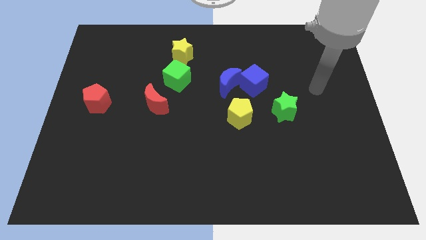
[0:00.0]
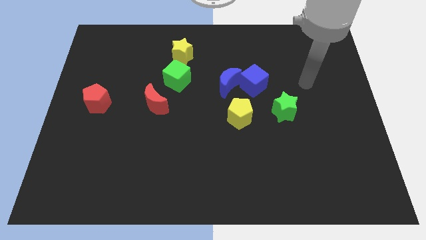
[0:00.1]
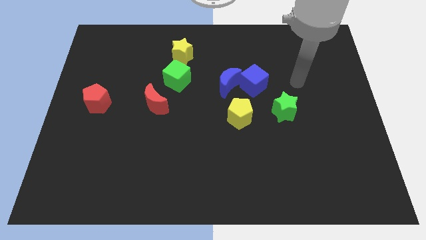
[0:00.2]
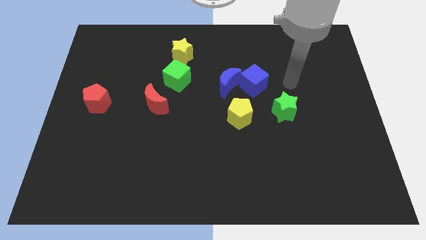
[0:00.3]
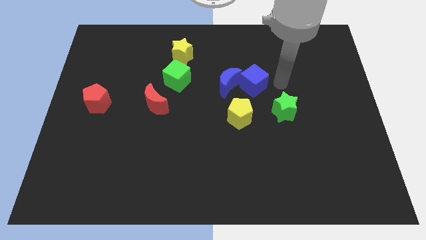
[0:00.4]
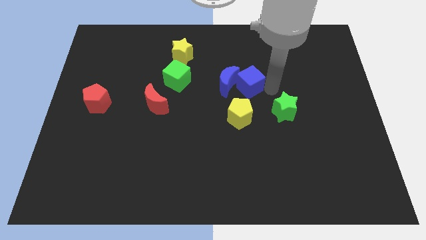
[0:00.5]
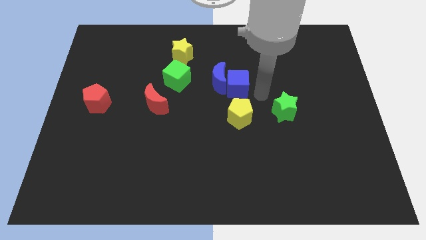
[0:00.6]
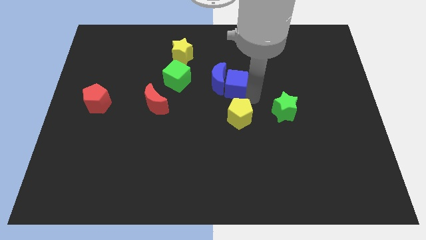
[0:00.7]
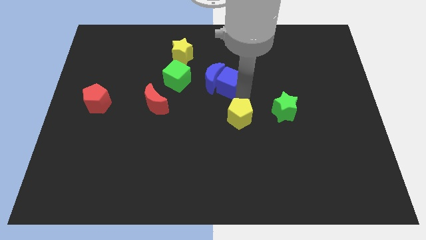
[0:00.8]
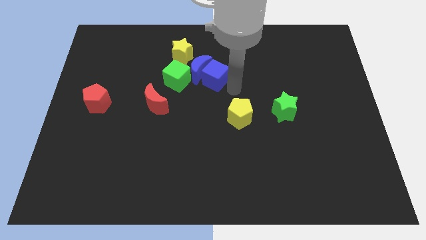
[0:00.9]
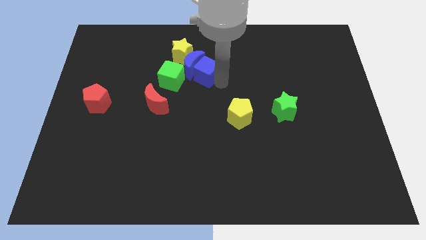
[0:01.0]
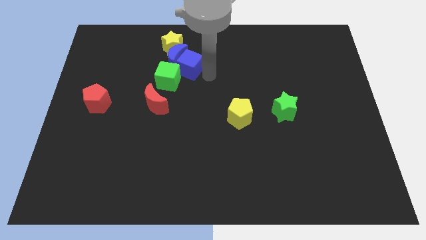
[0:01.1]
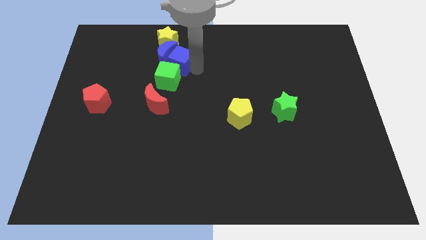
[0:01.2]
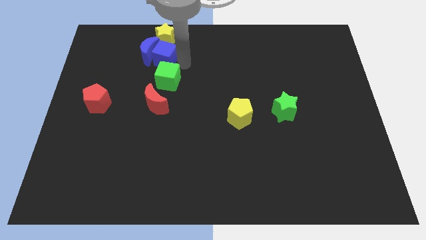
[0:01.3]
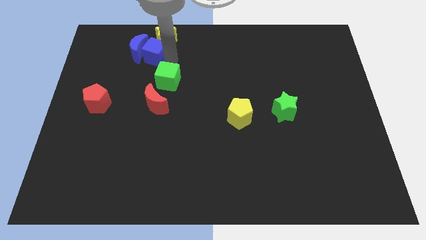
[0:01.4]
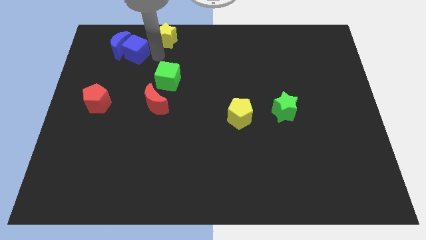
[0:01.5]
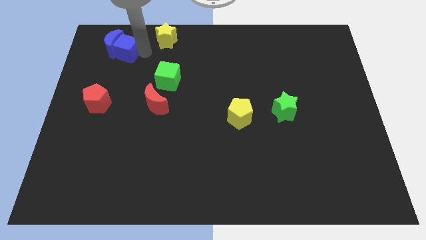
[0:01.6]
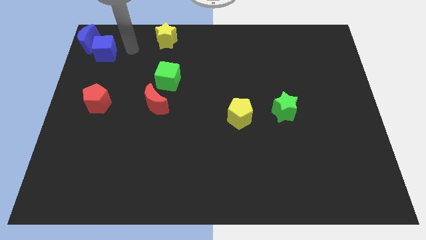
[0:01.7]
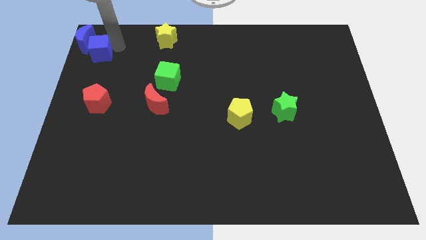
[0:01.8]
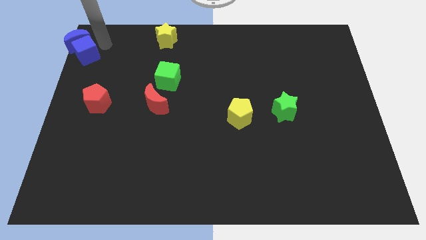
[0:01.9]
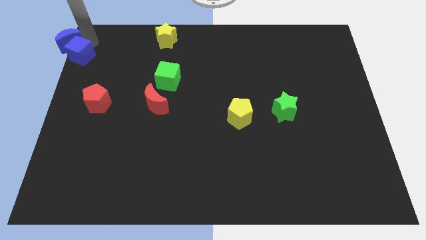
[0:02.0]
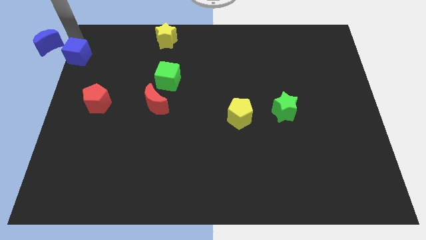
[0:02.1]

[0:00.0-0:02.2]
pull the blue cube apart from the blue moon

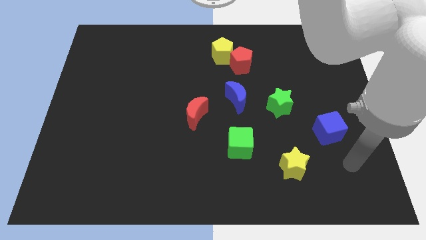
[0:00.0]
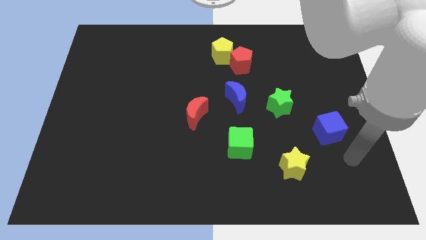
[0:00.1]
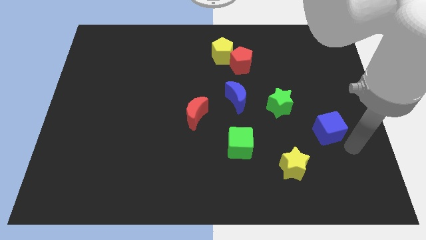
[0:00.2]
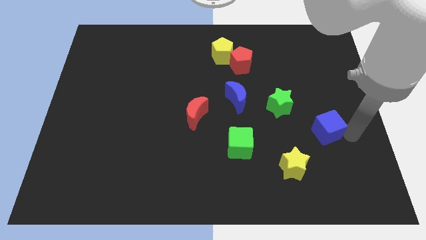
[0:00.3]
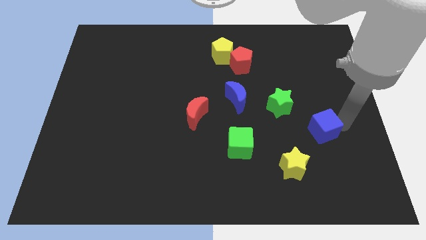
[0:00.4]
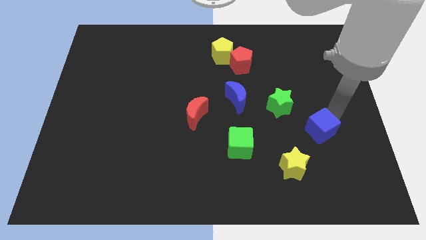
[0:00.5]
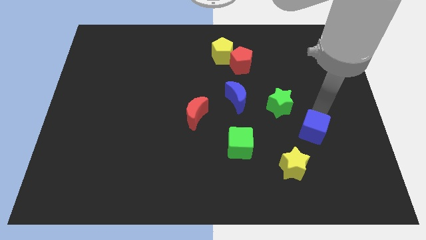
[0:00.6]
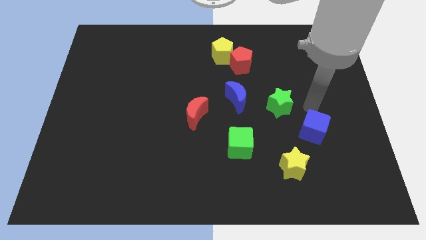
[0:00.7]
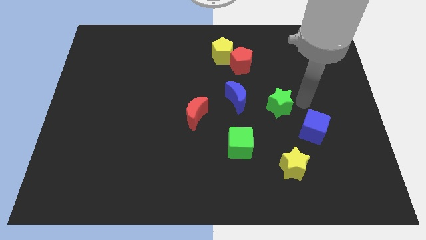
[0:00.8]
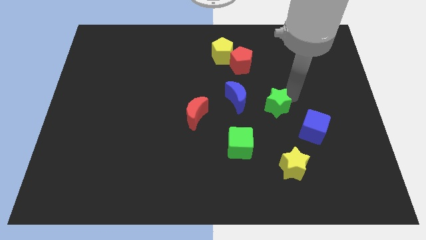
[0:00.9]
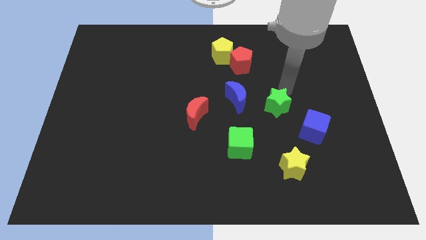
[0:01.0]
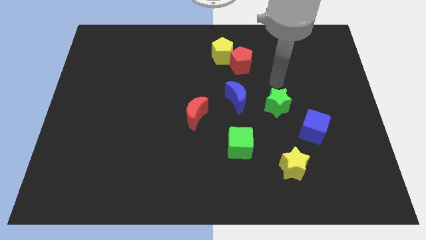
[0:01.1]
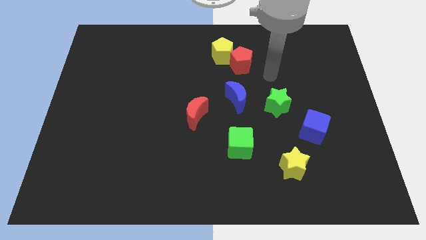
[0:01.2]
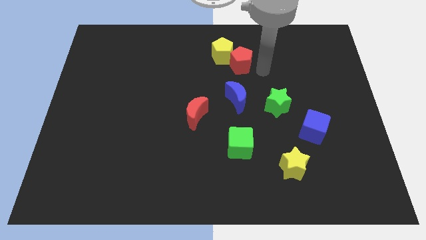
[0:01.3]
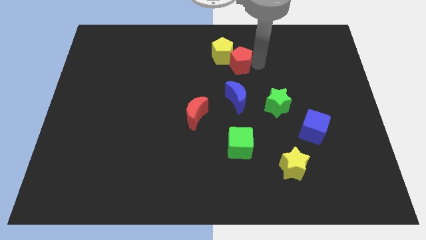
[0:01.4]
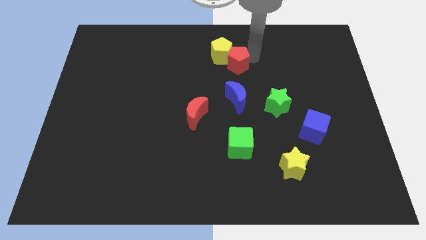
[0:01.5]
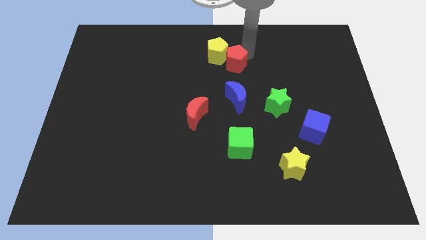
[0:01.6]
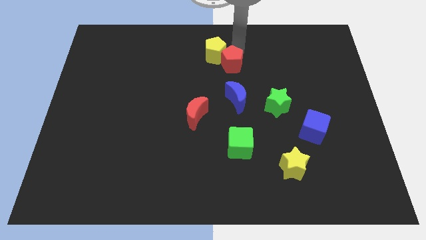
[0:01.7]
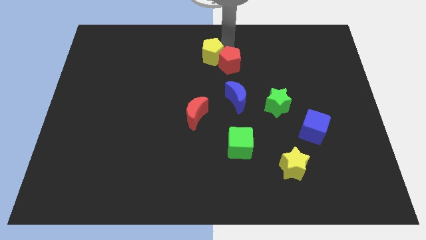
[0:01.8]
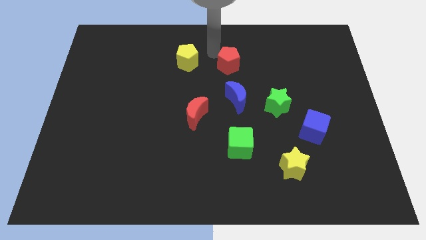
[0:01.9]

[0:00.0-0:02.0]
move the red pentagon away from the yellow pentagon

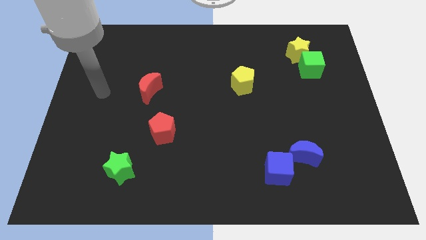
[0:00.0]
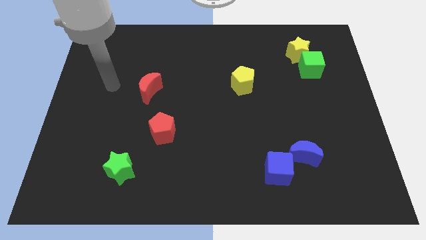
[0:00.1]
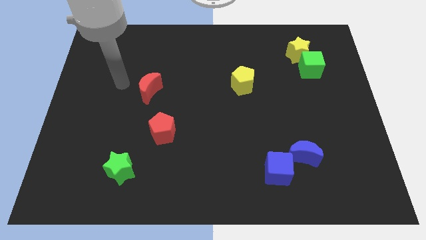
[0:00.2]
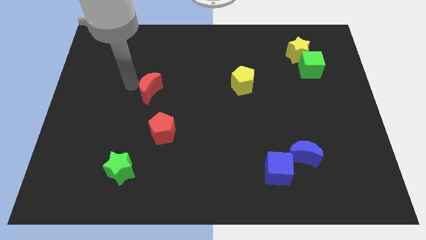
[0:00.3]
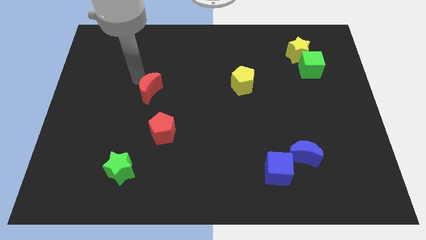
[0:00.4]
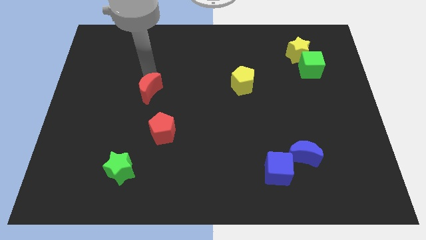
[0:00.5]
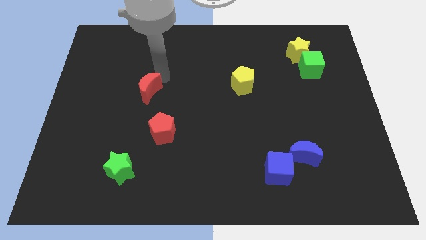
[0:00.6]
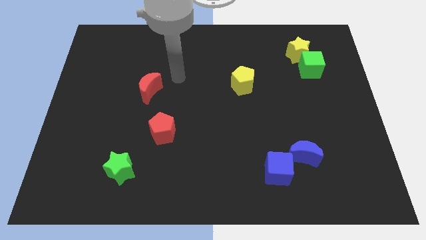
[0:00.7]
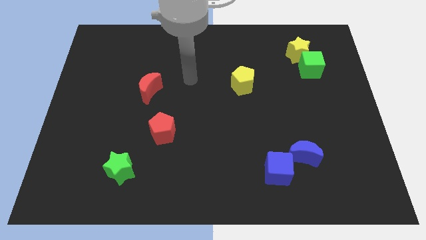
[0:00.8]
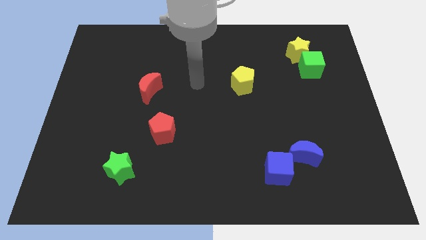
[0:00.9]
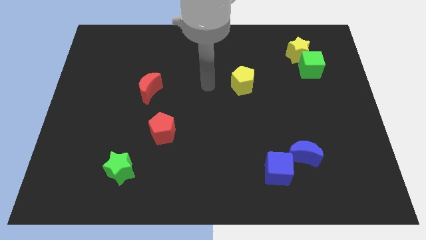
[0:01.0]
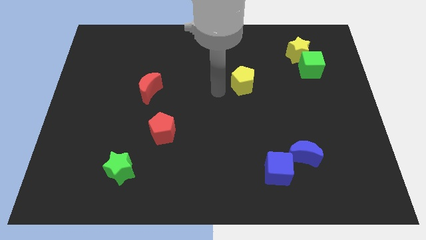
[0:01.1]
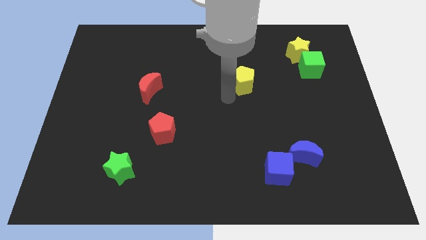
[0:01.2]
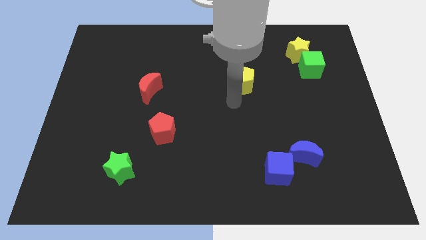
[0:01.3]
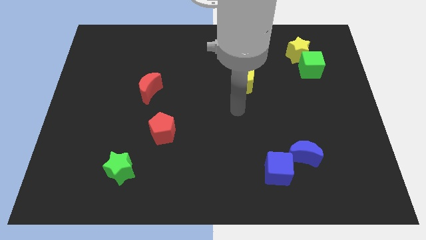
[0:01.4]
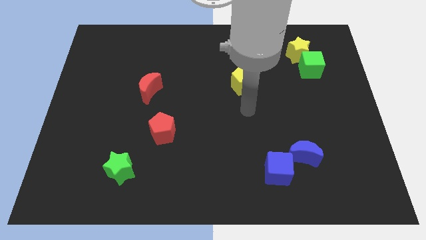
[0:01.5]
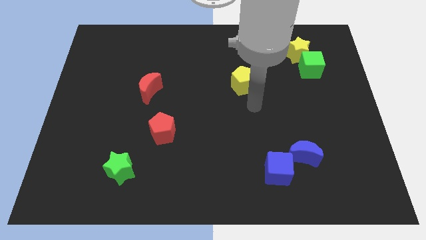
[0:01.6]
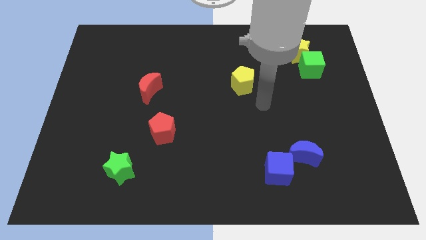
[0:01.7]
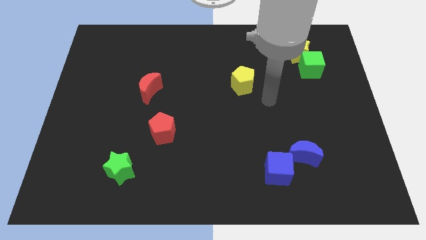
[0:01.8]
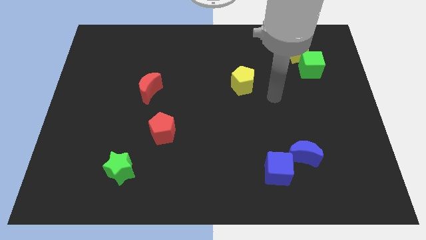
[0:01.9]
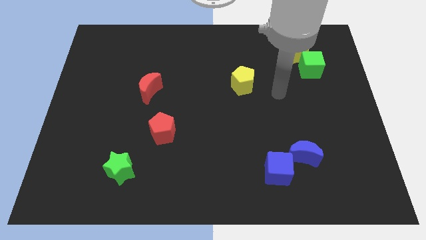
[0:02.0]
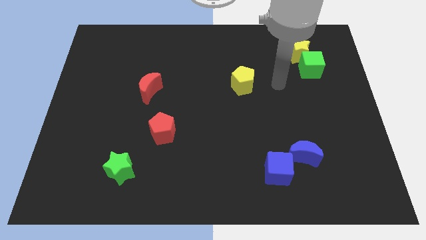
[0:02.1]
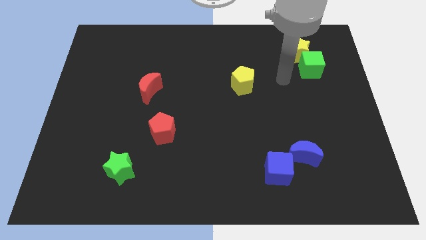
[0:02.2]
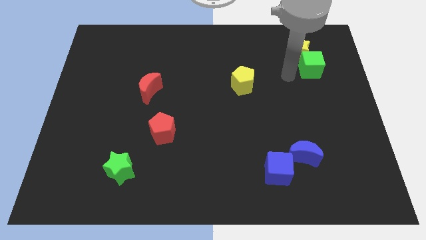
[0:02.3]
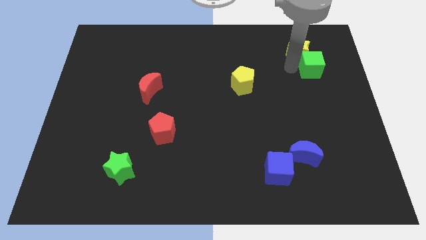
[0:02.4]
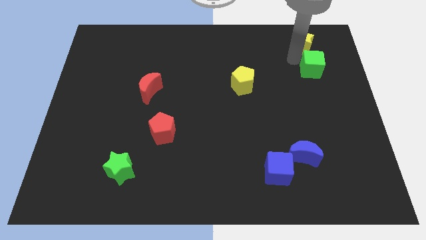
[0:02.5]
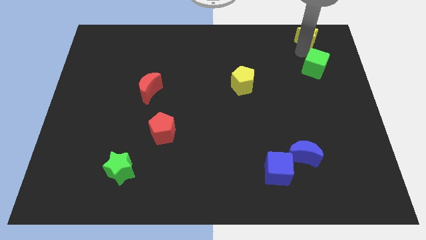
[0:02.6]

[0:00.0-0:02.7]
move the green cube away from the yellow star

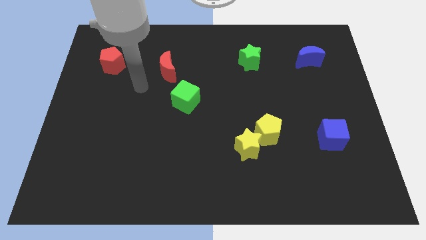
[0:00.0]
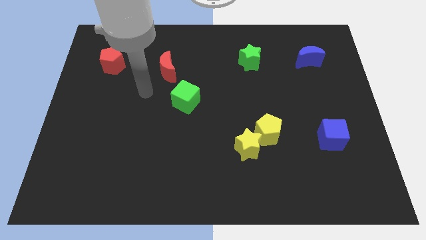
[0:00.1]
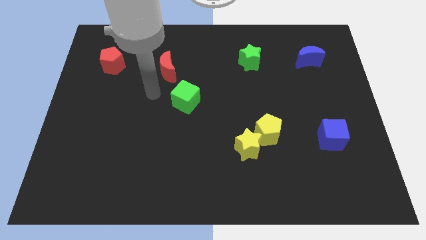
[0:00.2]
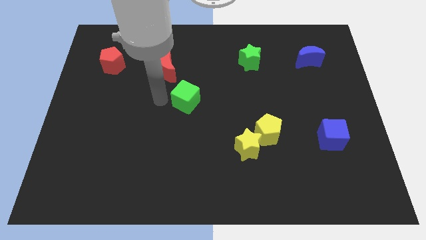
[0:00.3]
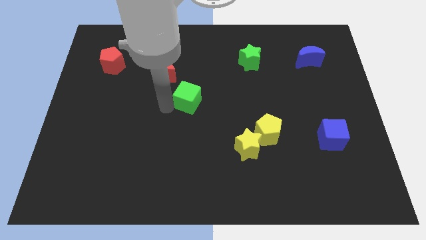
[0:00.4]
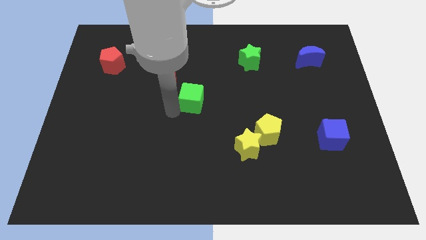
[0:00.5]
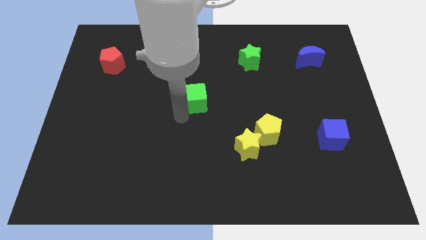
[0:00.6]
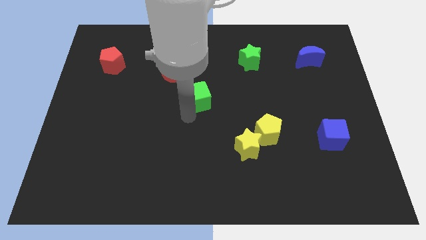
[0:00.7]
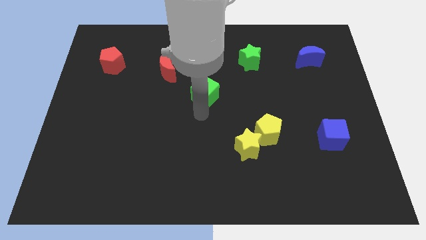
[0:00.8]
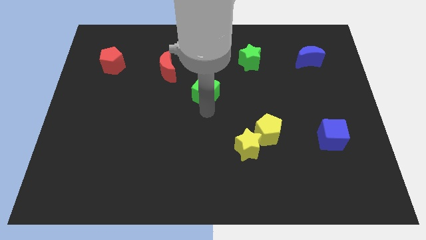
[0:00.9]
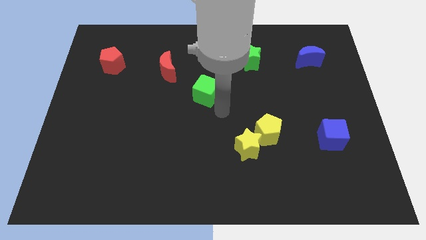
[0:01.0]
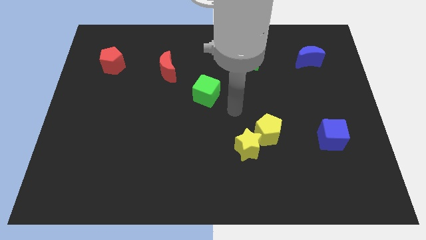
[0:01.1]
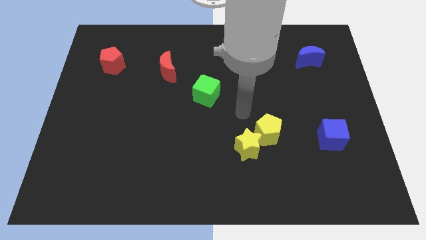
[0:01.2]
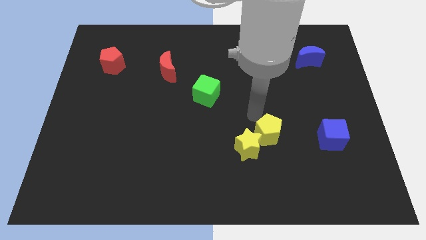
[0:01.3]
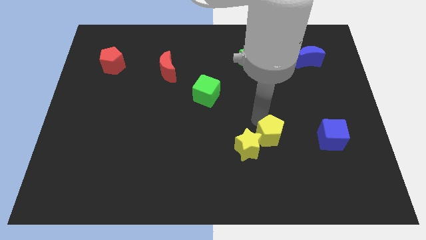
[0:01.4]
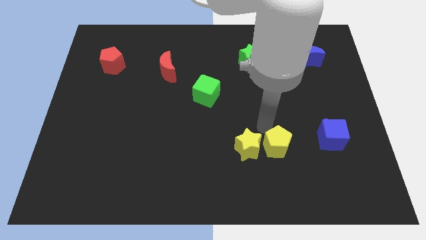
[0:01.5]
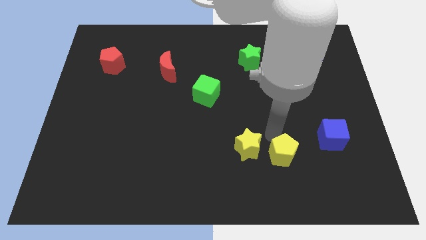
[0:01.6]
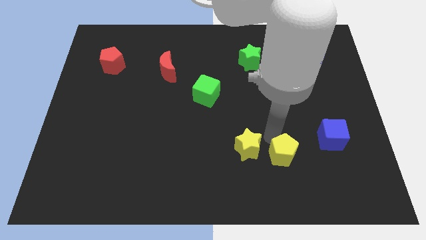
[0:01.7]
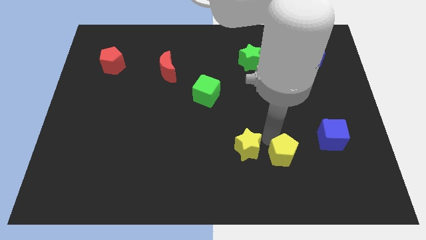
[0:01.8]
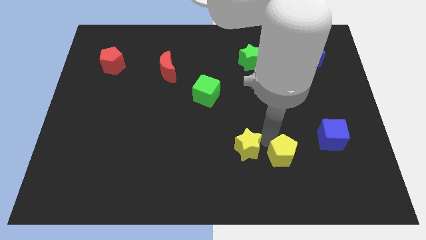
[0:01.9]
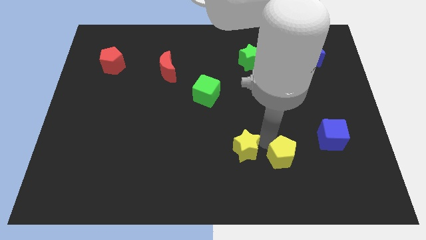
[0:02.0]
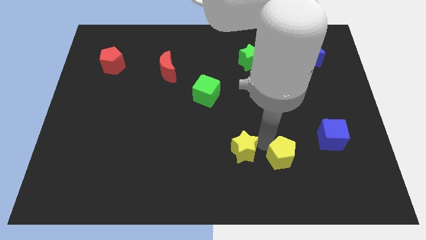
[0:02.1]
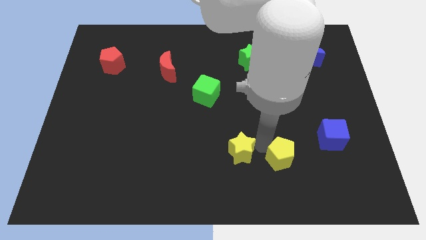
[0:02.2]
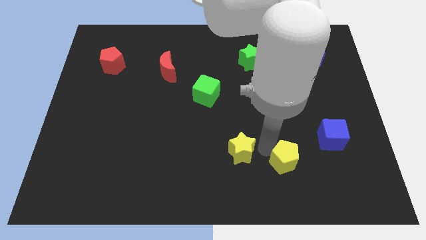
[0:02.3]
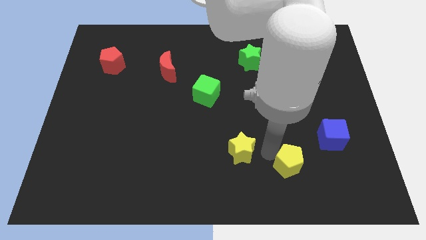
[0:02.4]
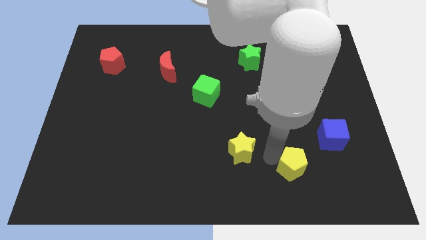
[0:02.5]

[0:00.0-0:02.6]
separate the yellow star from the yellow pentagon
